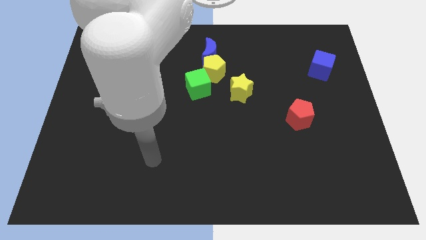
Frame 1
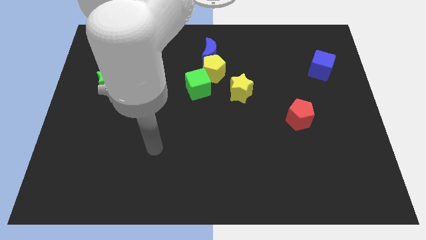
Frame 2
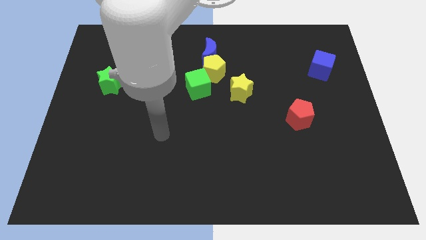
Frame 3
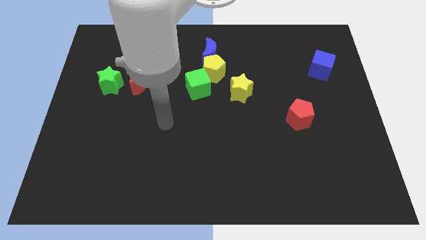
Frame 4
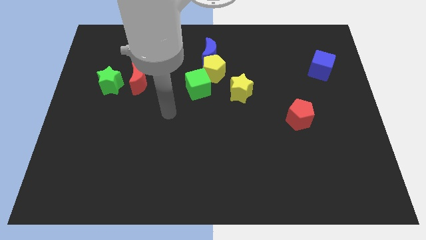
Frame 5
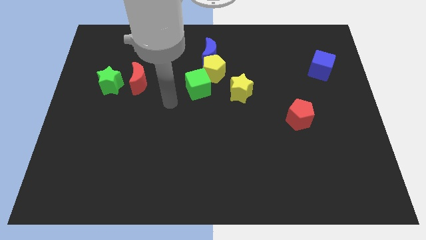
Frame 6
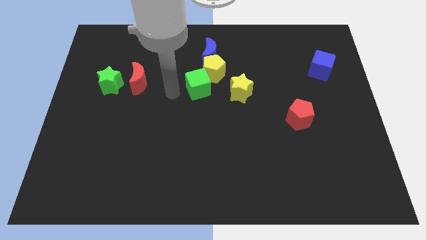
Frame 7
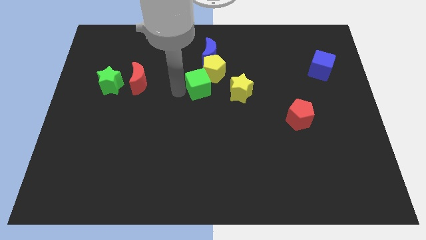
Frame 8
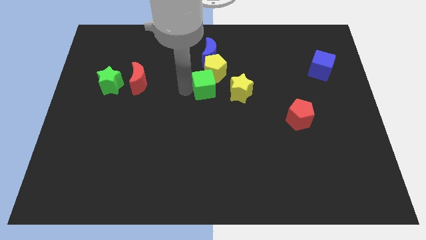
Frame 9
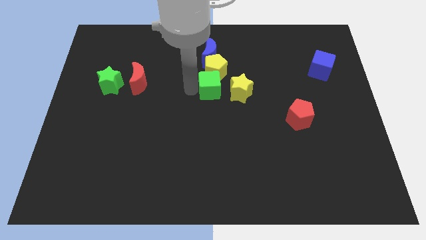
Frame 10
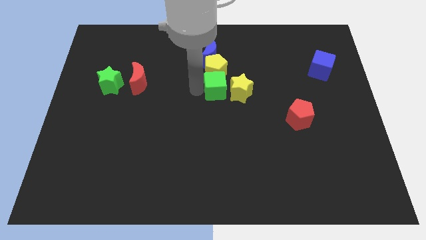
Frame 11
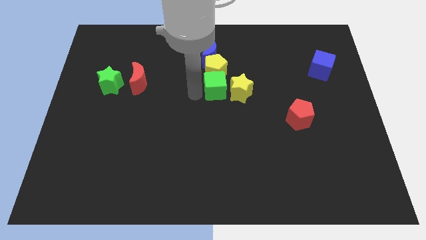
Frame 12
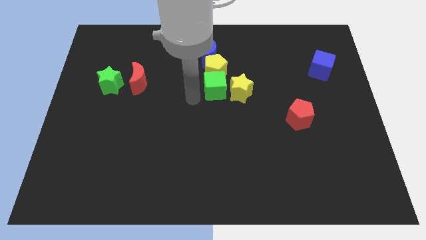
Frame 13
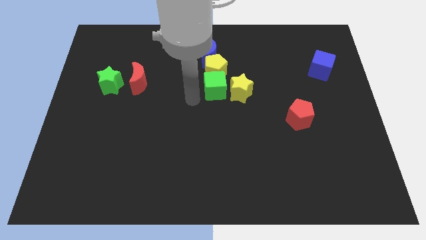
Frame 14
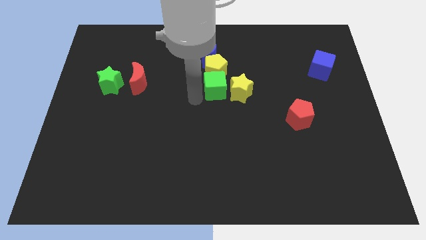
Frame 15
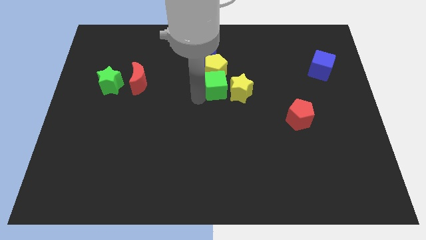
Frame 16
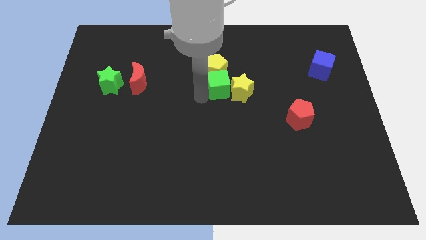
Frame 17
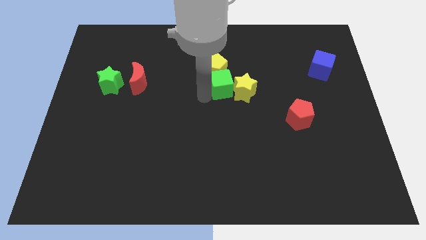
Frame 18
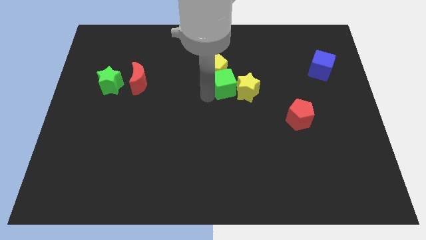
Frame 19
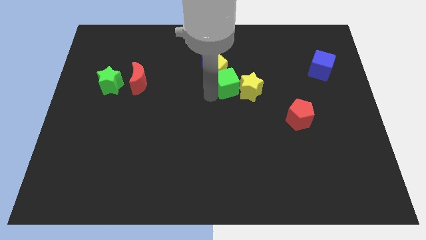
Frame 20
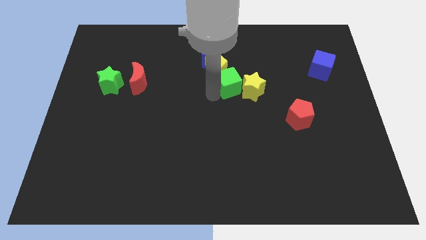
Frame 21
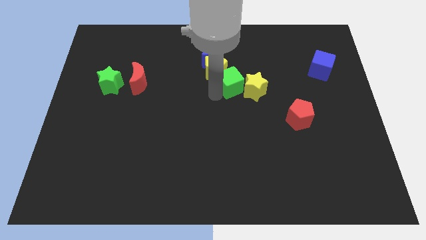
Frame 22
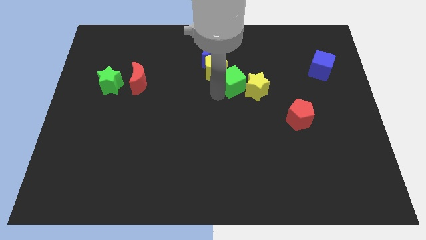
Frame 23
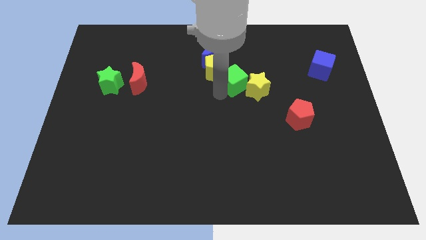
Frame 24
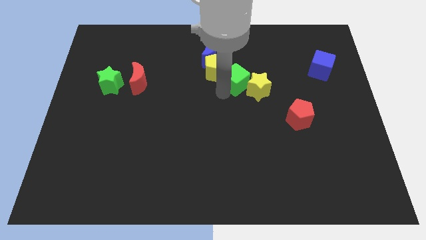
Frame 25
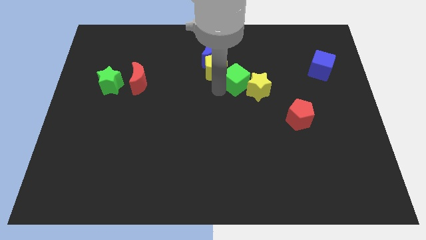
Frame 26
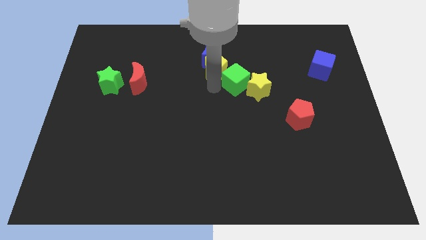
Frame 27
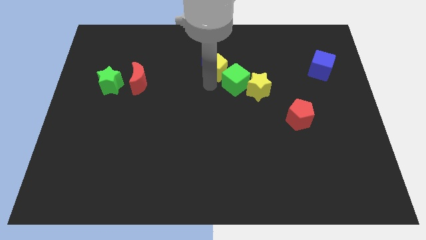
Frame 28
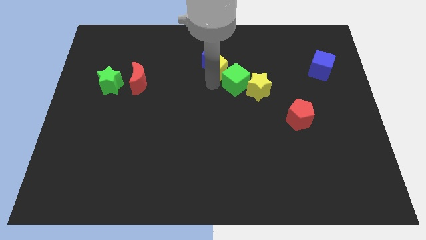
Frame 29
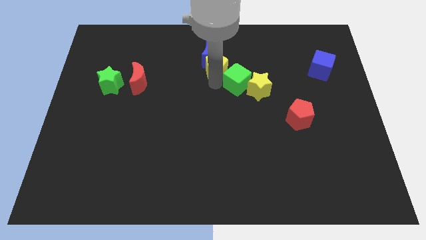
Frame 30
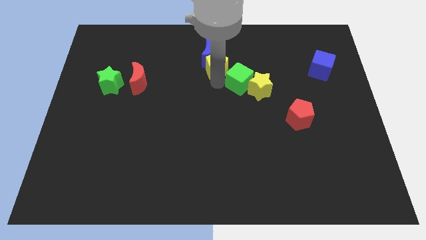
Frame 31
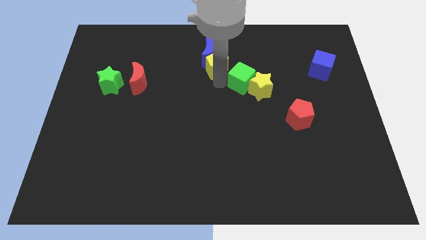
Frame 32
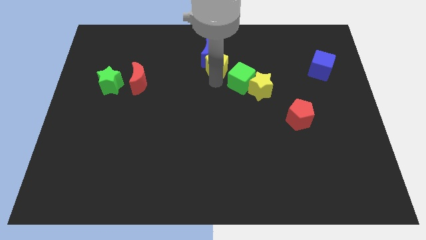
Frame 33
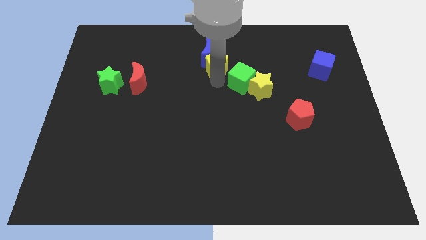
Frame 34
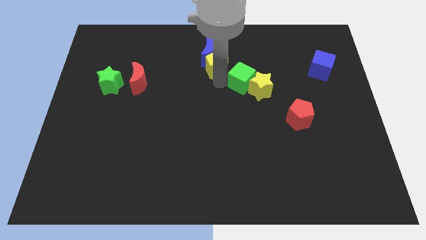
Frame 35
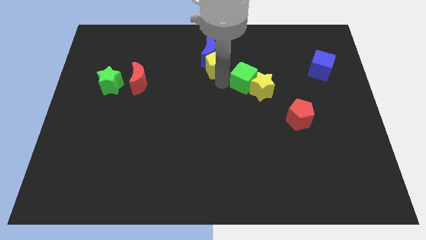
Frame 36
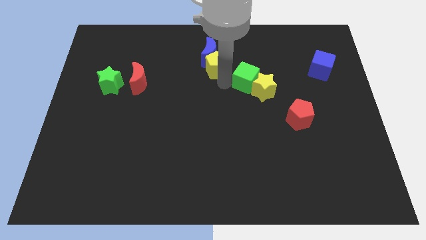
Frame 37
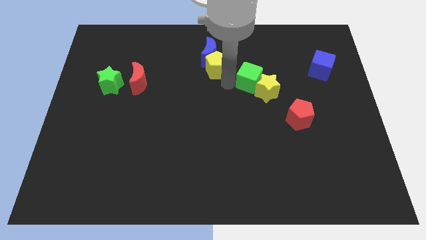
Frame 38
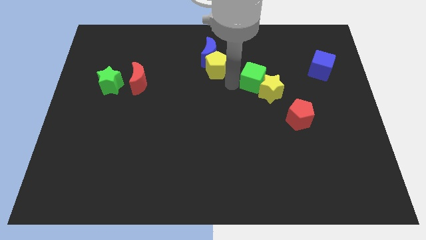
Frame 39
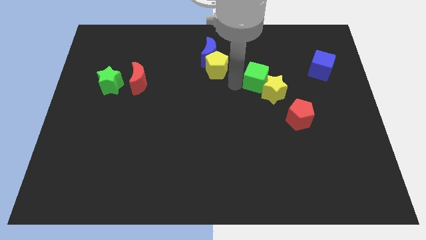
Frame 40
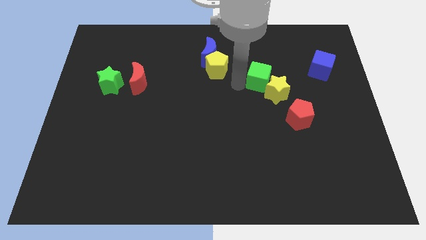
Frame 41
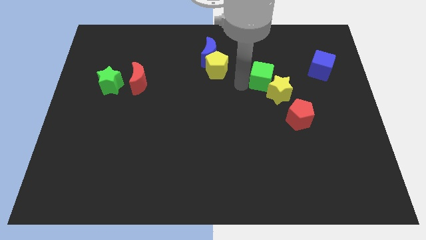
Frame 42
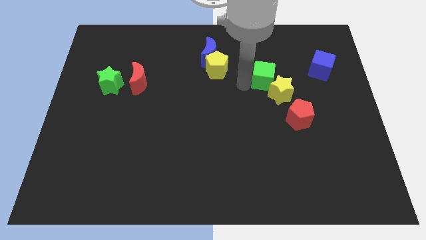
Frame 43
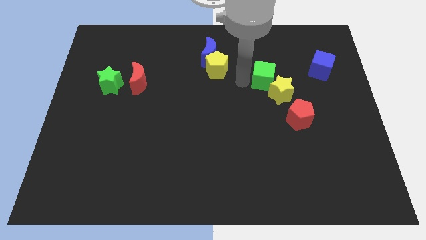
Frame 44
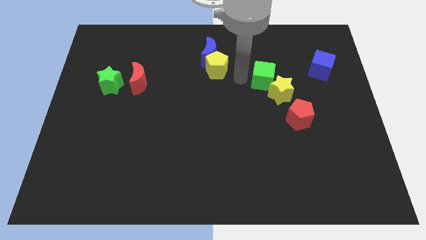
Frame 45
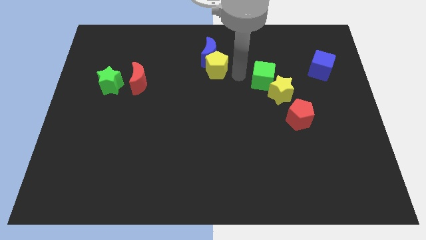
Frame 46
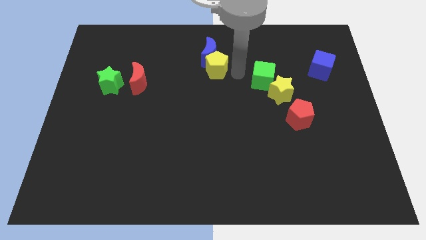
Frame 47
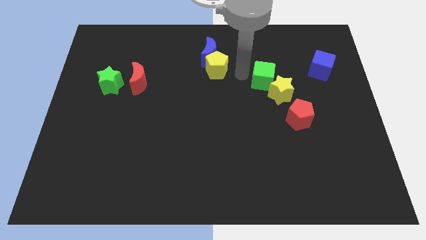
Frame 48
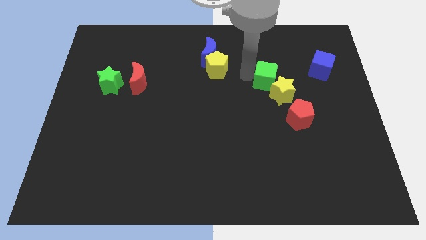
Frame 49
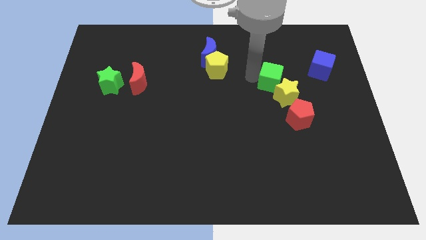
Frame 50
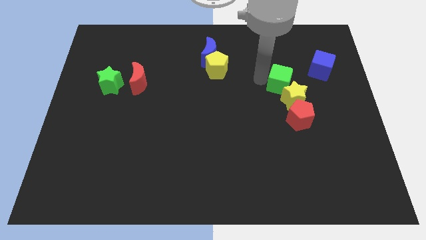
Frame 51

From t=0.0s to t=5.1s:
move the green cube right

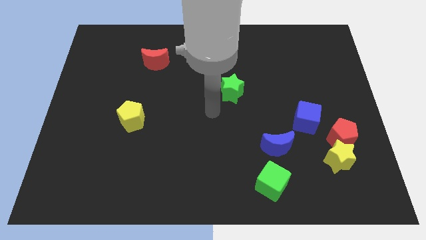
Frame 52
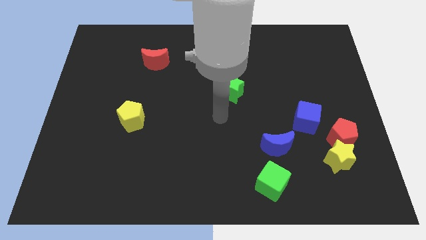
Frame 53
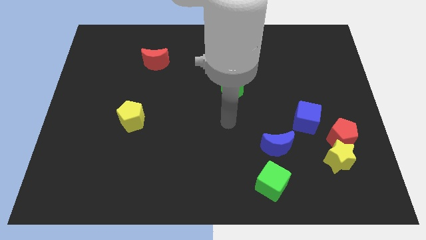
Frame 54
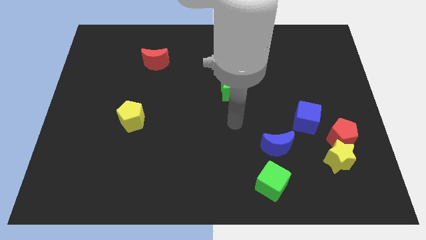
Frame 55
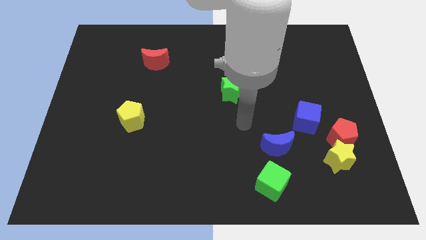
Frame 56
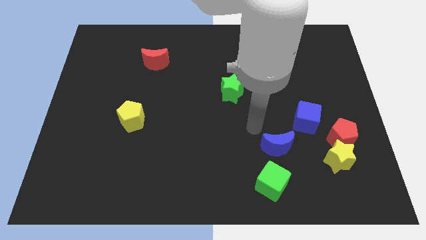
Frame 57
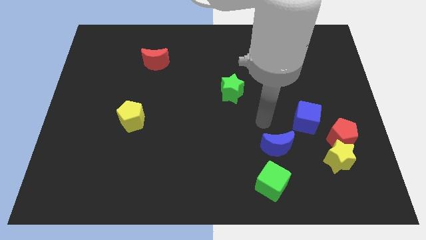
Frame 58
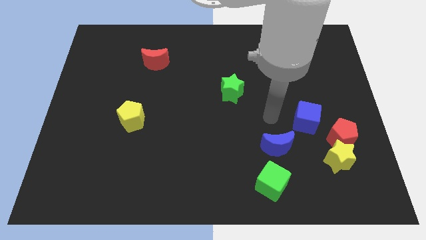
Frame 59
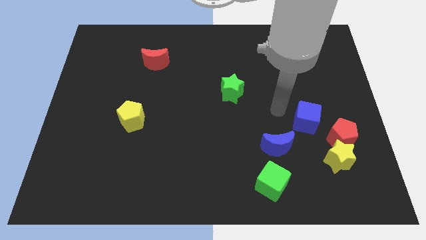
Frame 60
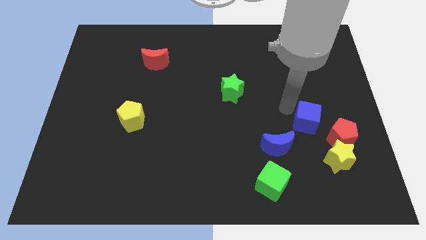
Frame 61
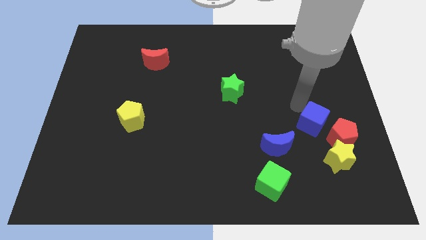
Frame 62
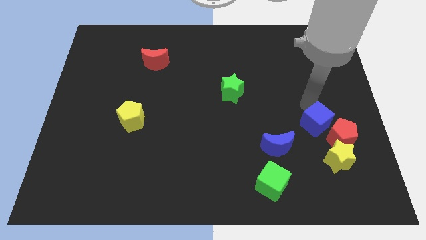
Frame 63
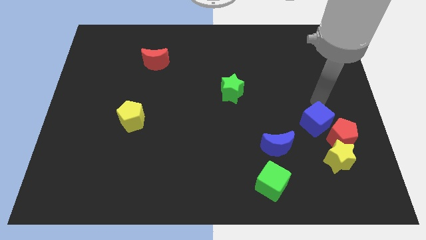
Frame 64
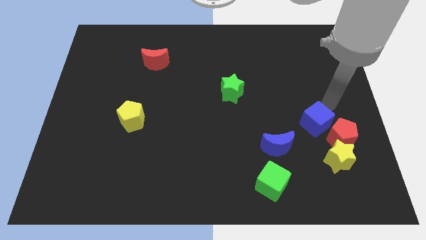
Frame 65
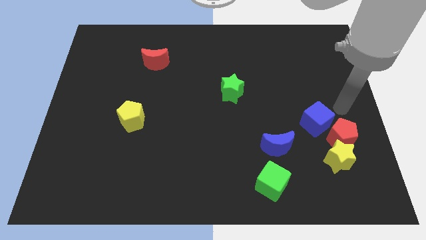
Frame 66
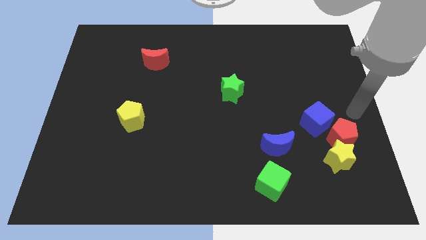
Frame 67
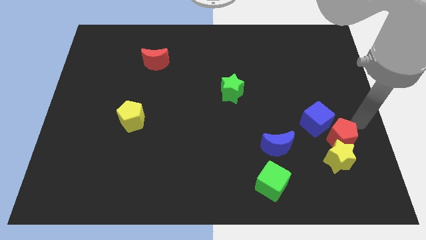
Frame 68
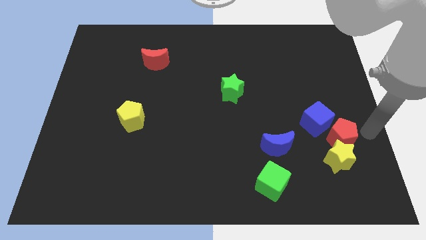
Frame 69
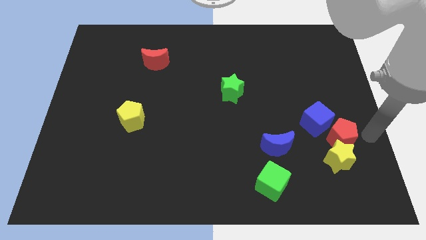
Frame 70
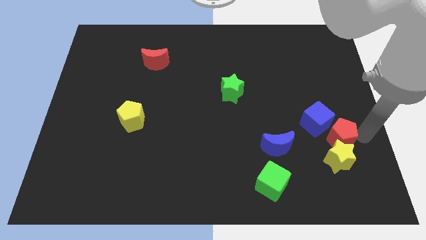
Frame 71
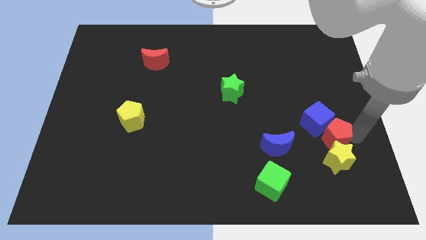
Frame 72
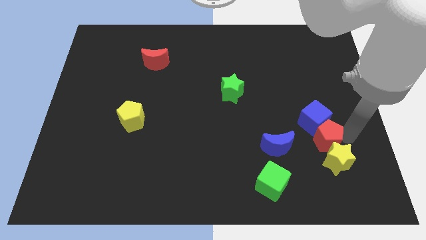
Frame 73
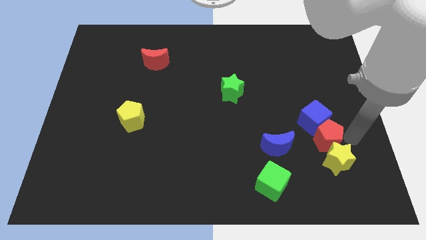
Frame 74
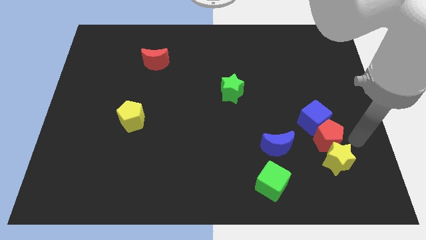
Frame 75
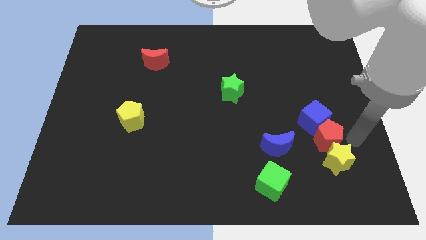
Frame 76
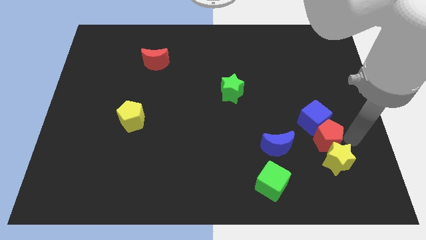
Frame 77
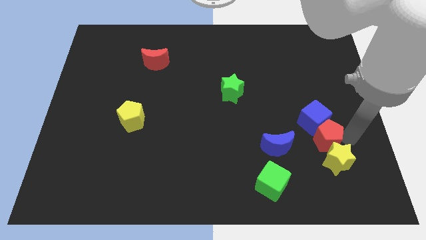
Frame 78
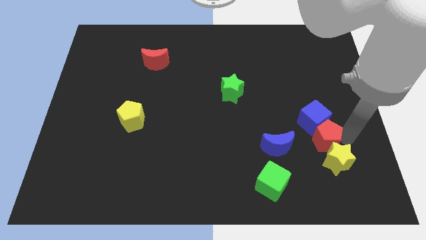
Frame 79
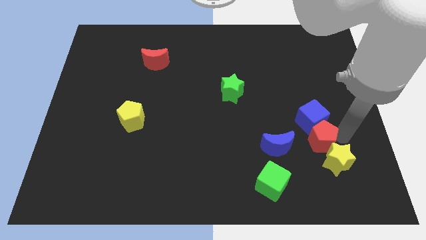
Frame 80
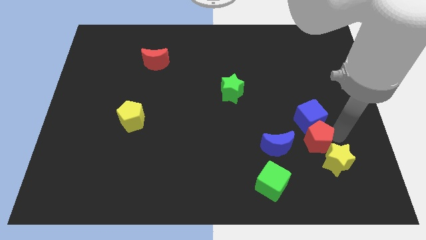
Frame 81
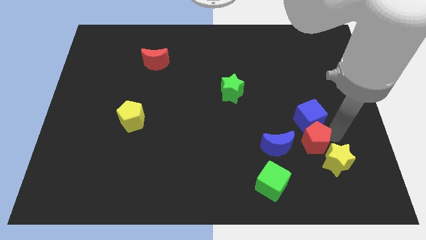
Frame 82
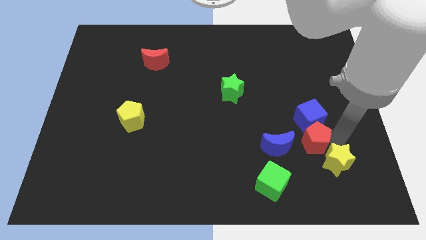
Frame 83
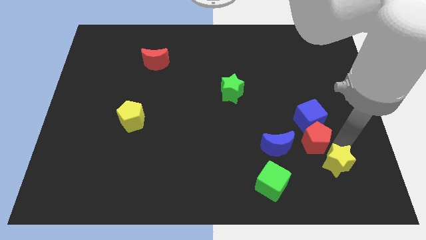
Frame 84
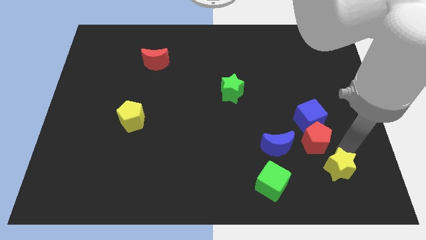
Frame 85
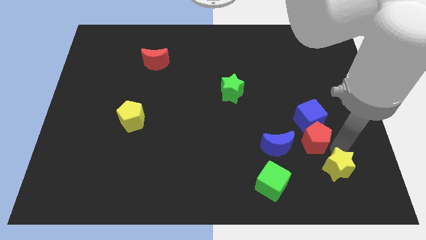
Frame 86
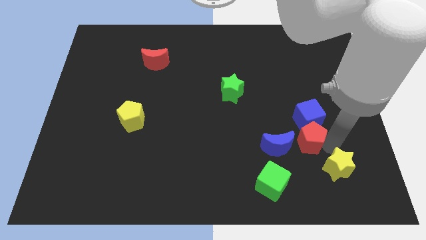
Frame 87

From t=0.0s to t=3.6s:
push the red pentagon a little left
